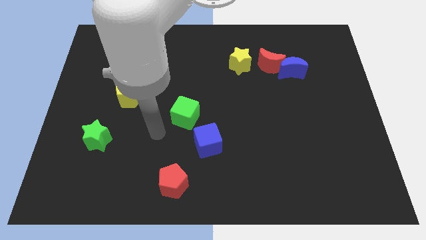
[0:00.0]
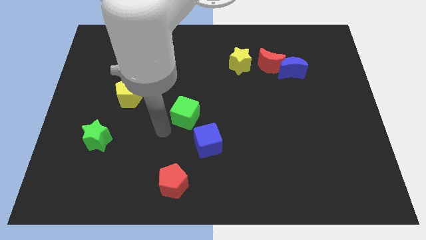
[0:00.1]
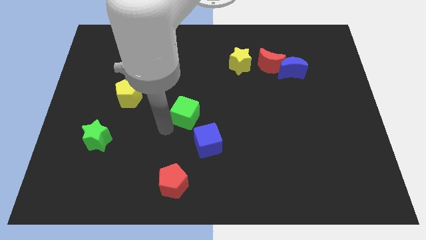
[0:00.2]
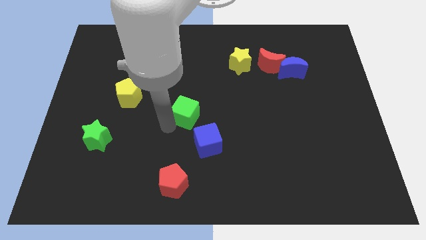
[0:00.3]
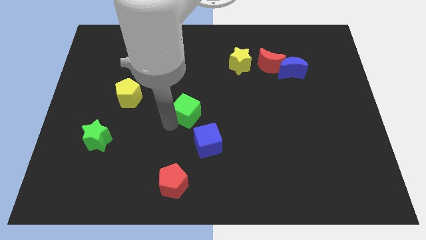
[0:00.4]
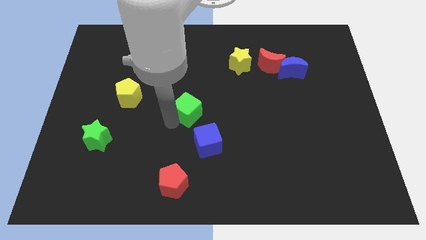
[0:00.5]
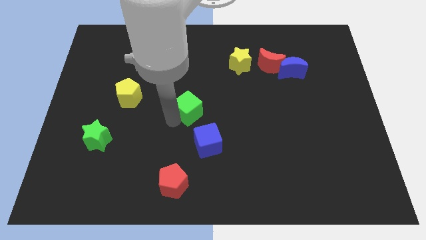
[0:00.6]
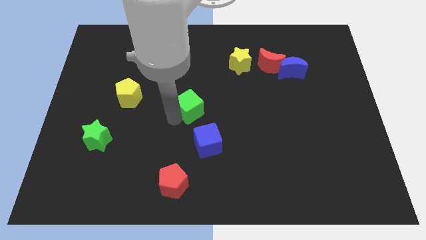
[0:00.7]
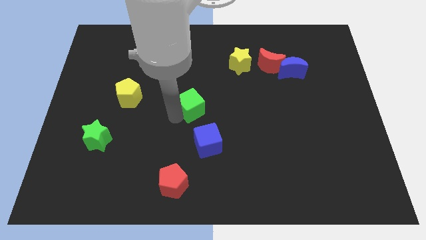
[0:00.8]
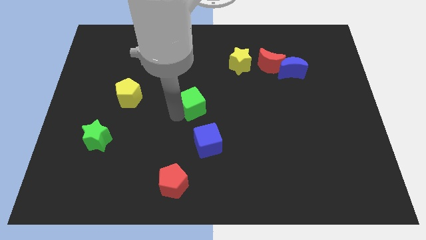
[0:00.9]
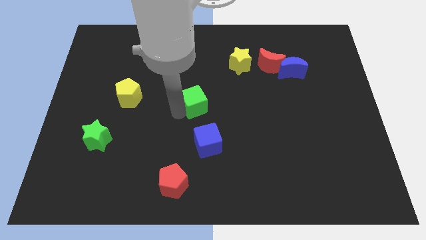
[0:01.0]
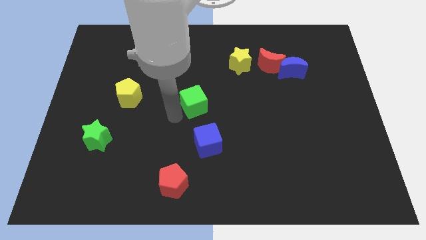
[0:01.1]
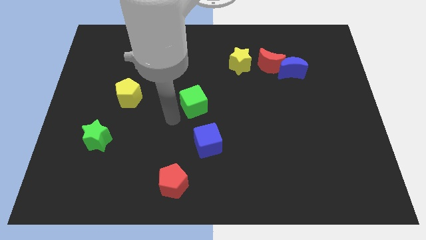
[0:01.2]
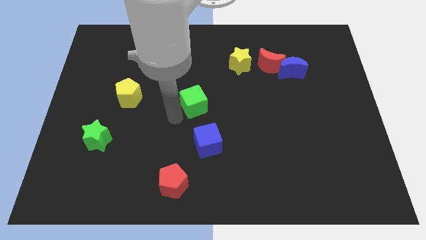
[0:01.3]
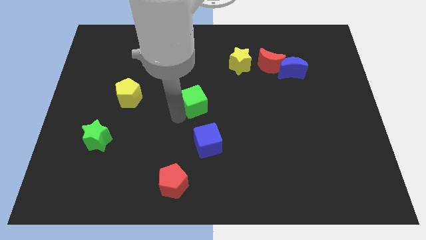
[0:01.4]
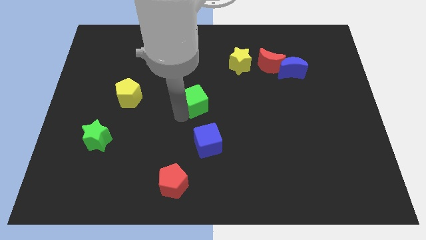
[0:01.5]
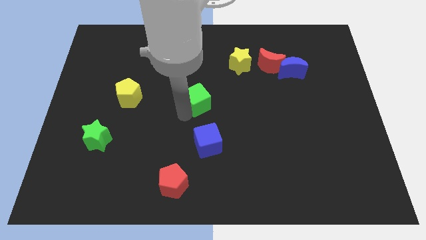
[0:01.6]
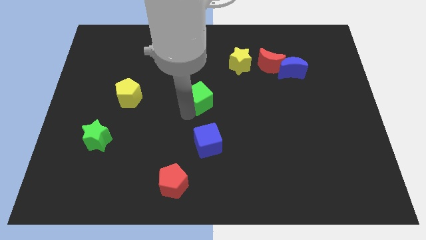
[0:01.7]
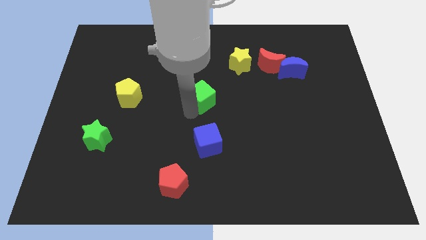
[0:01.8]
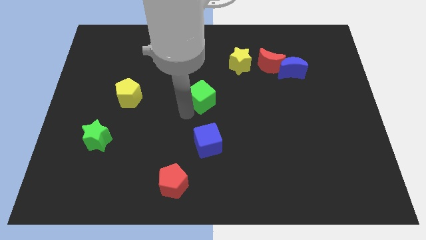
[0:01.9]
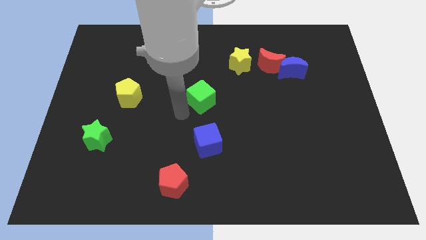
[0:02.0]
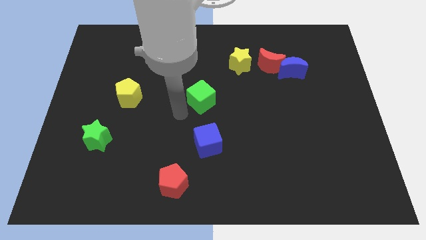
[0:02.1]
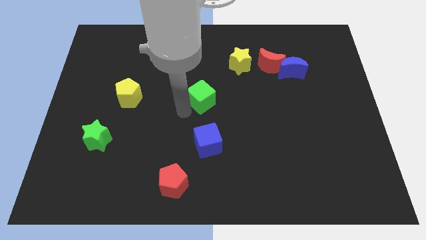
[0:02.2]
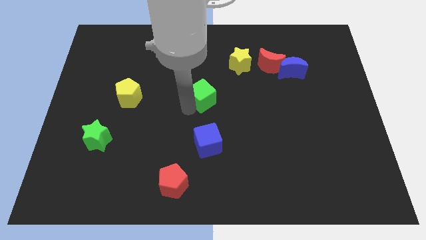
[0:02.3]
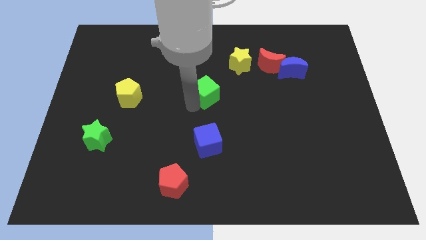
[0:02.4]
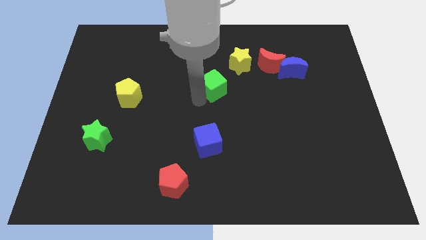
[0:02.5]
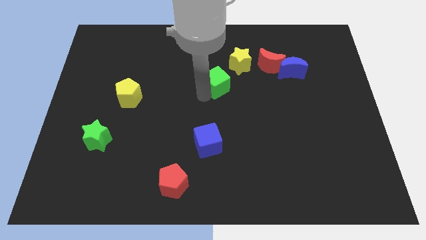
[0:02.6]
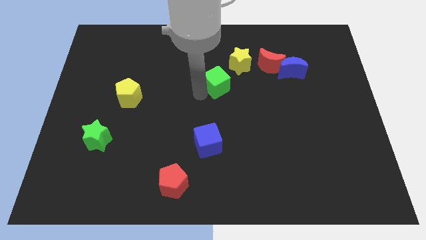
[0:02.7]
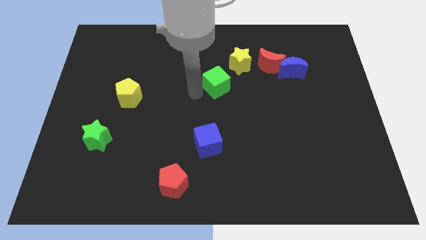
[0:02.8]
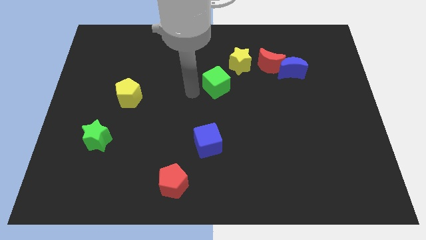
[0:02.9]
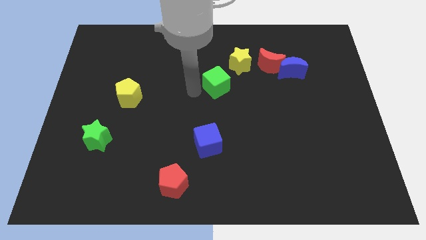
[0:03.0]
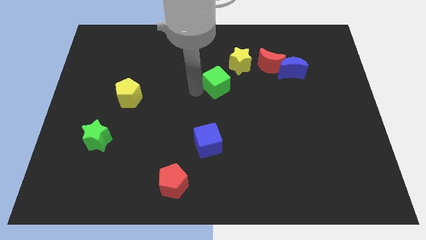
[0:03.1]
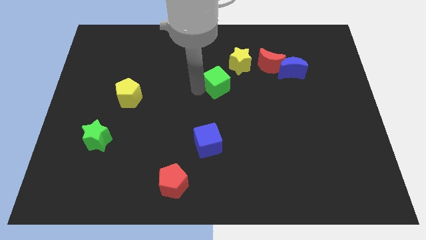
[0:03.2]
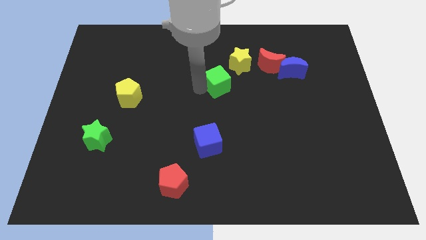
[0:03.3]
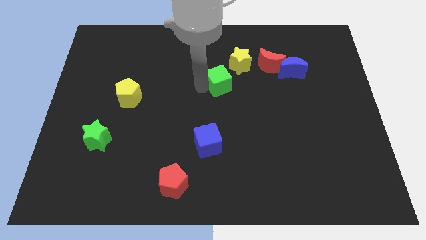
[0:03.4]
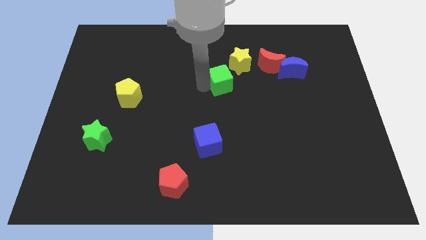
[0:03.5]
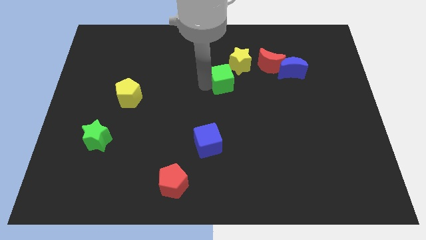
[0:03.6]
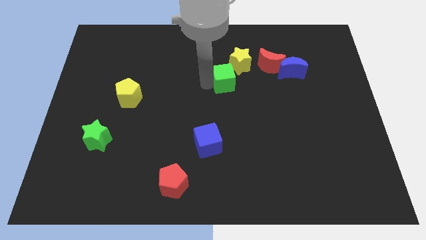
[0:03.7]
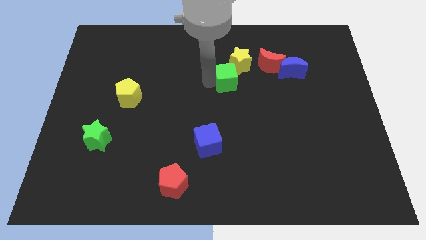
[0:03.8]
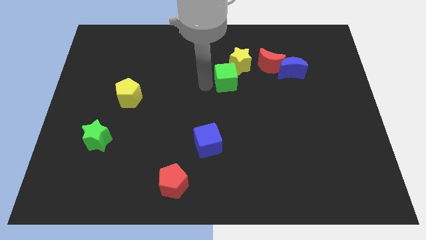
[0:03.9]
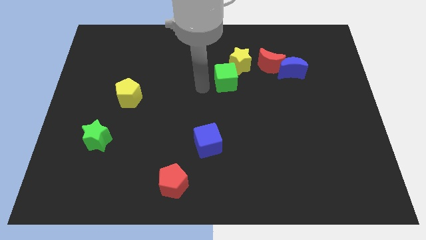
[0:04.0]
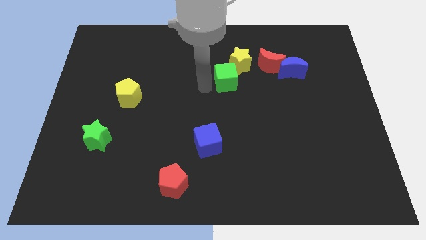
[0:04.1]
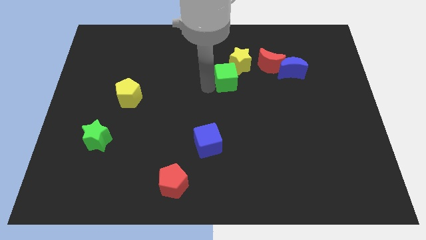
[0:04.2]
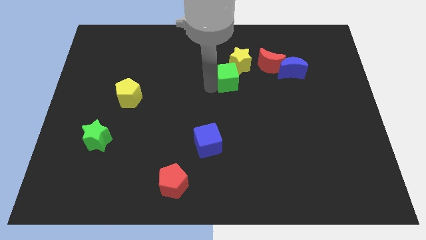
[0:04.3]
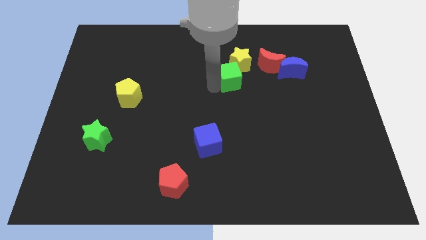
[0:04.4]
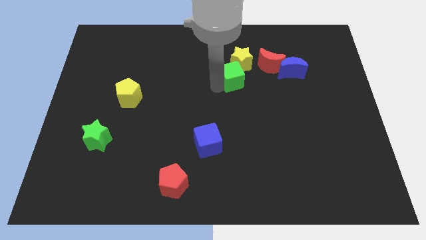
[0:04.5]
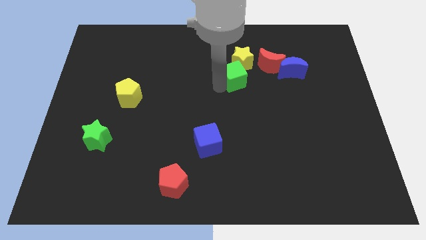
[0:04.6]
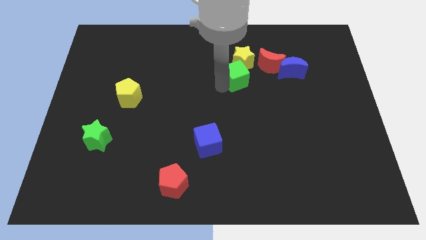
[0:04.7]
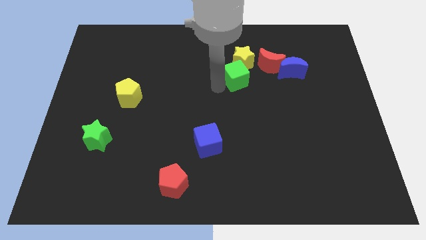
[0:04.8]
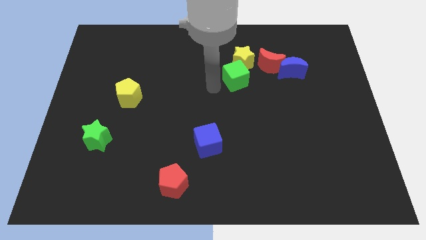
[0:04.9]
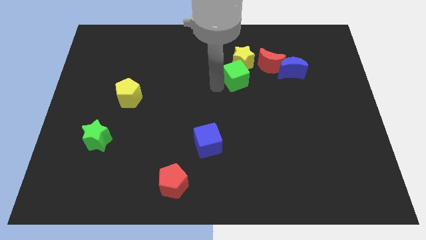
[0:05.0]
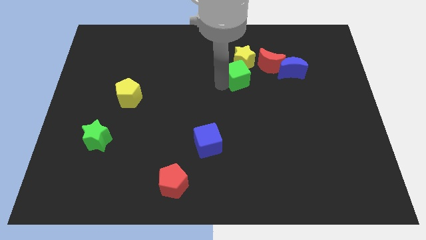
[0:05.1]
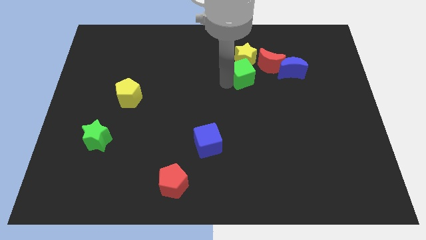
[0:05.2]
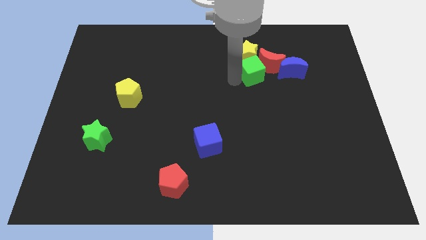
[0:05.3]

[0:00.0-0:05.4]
slide the green cube to the red moon

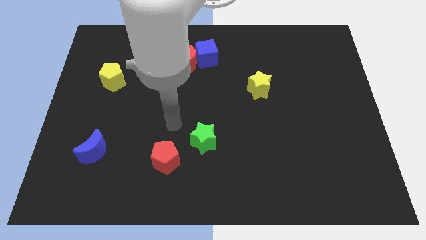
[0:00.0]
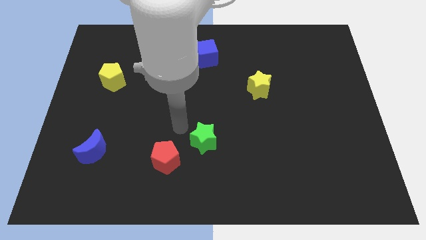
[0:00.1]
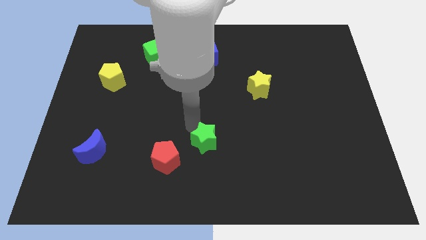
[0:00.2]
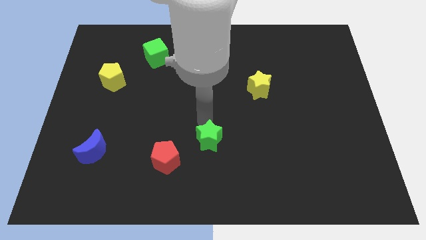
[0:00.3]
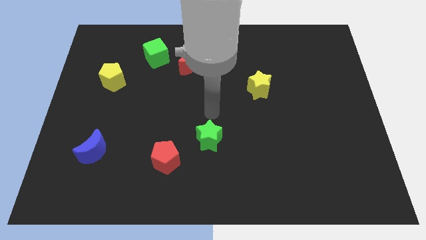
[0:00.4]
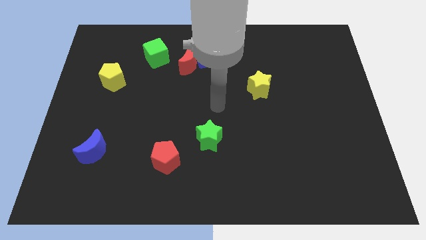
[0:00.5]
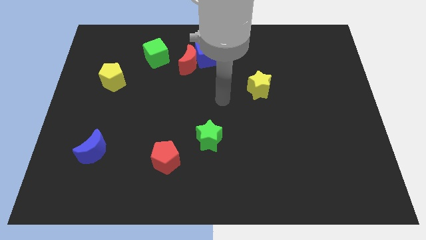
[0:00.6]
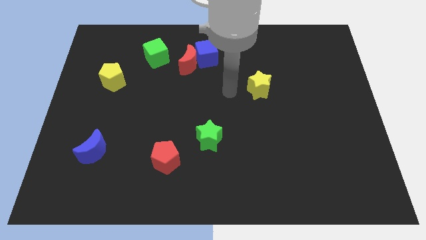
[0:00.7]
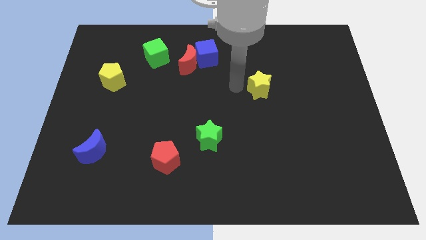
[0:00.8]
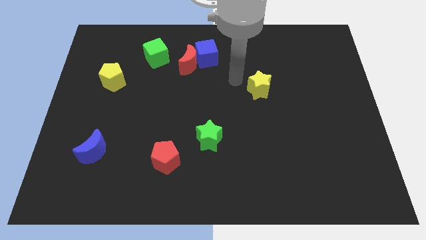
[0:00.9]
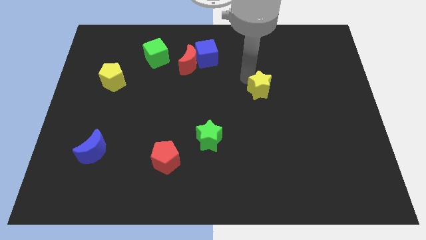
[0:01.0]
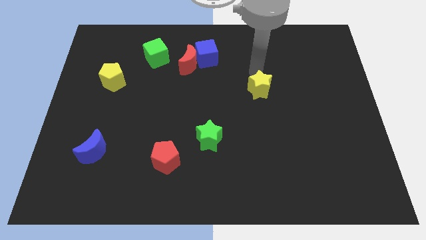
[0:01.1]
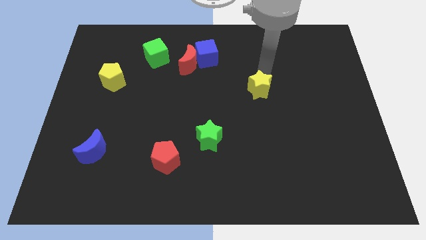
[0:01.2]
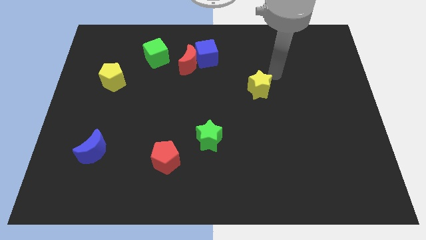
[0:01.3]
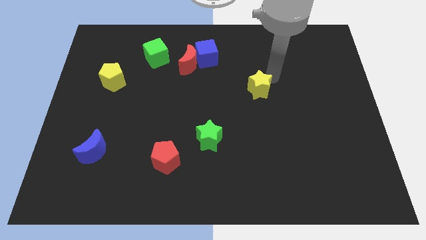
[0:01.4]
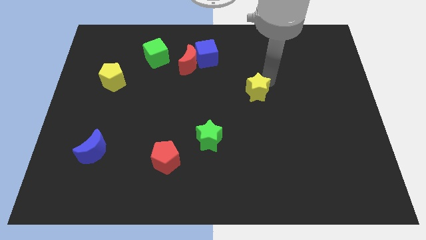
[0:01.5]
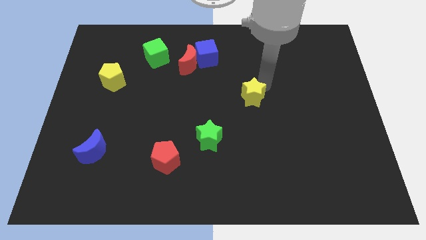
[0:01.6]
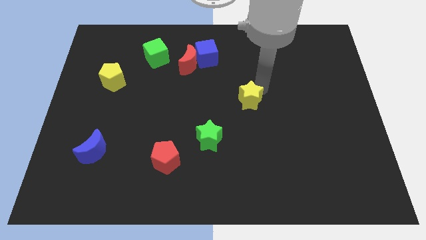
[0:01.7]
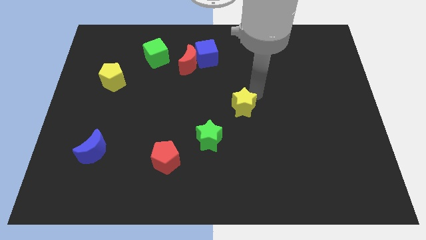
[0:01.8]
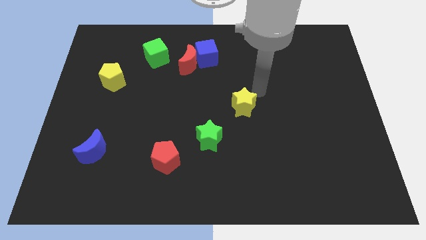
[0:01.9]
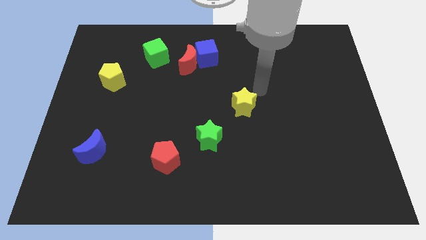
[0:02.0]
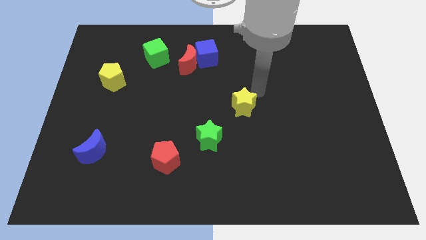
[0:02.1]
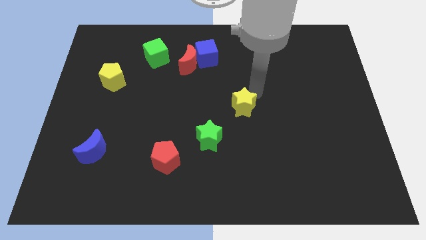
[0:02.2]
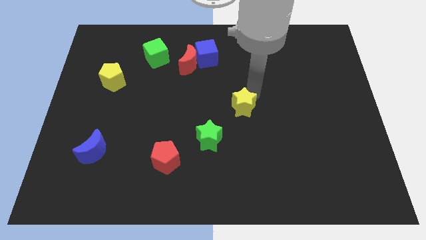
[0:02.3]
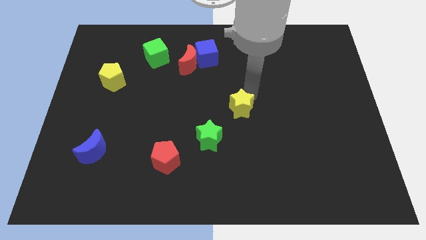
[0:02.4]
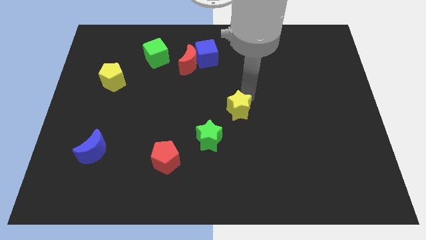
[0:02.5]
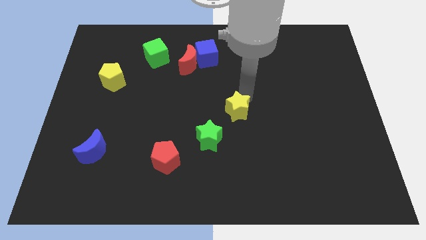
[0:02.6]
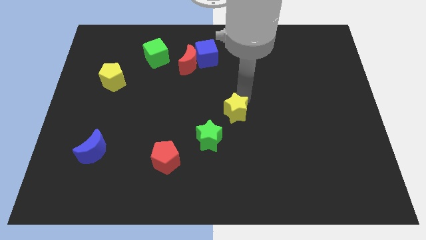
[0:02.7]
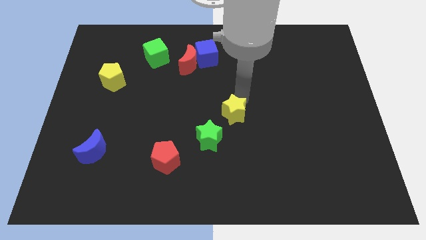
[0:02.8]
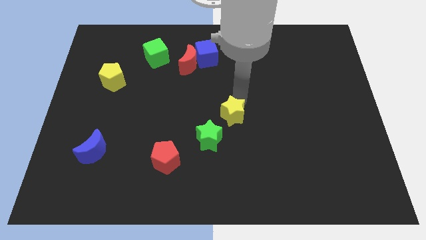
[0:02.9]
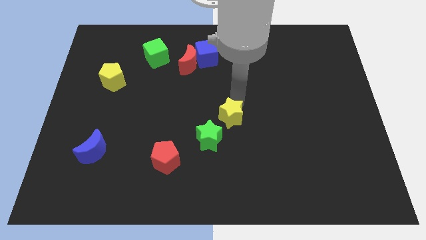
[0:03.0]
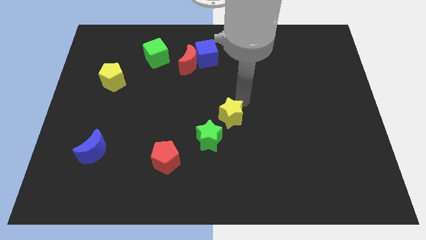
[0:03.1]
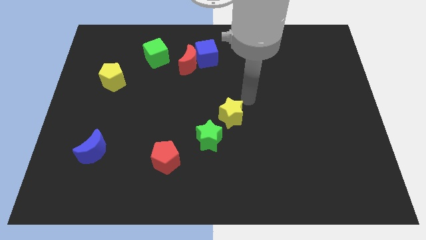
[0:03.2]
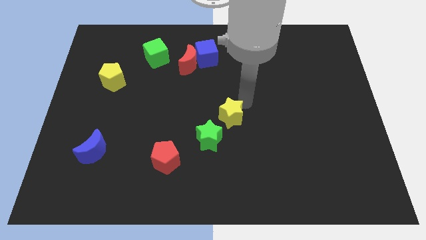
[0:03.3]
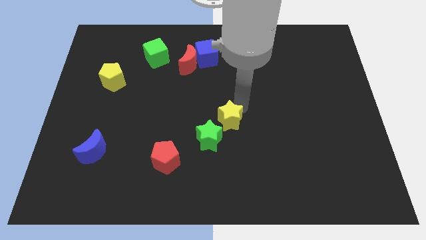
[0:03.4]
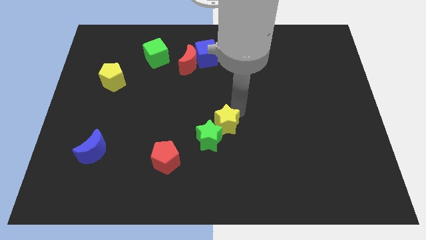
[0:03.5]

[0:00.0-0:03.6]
put the yellow star close to the green star
